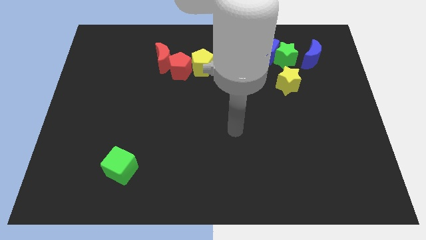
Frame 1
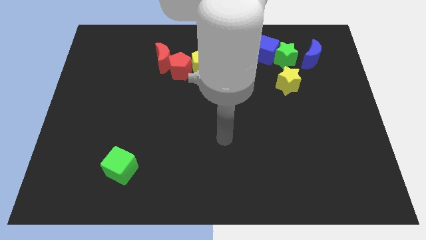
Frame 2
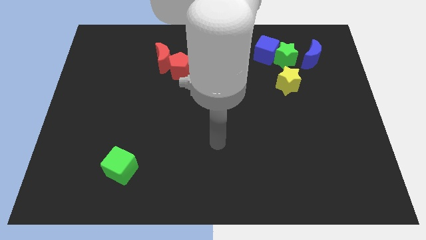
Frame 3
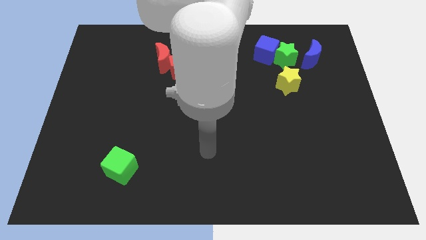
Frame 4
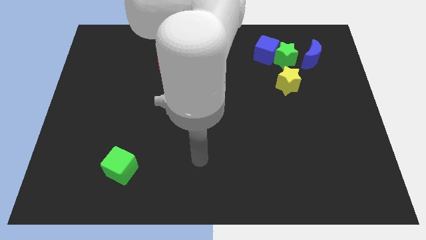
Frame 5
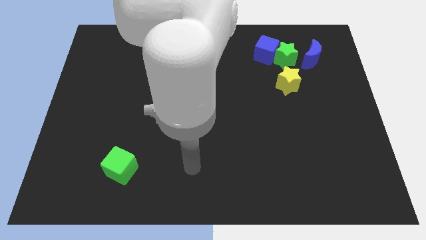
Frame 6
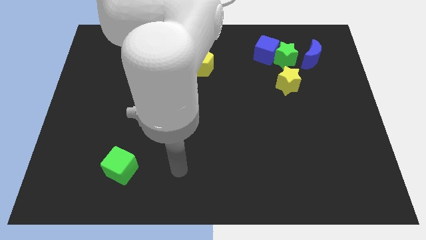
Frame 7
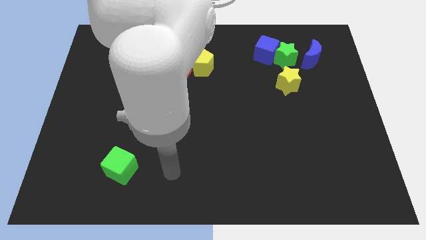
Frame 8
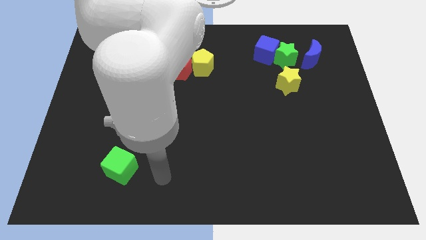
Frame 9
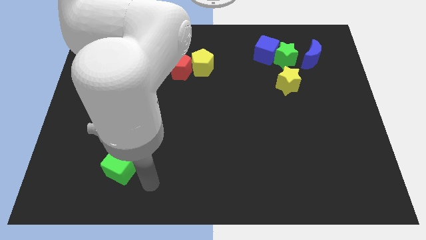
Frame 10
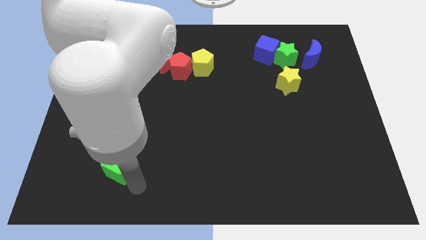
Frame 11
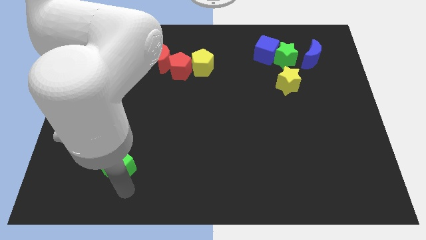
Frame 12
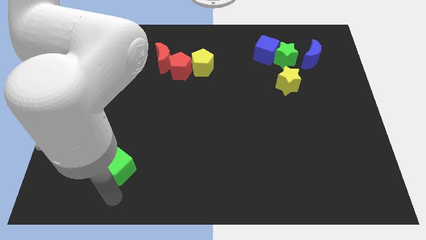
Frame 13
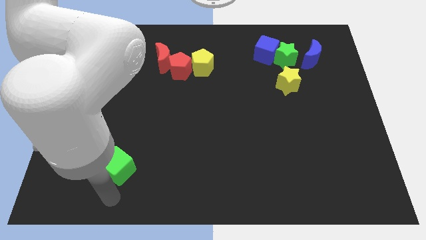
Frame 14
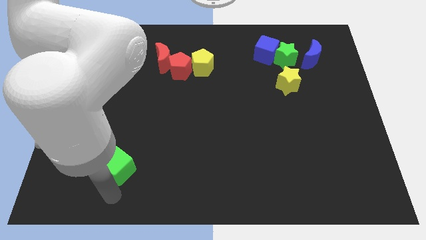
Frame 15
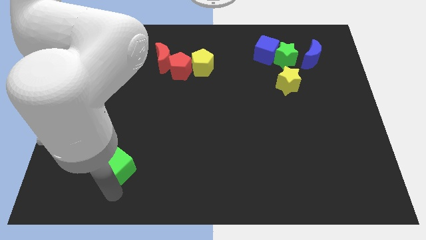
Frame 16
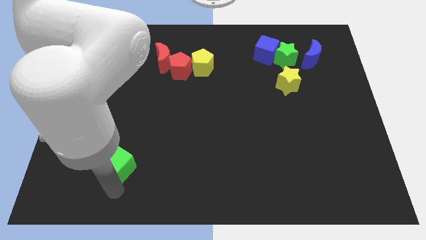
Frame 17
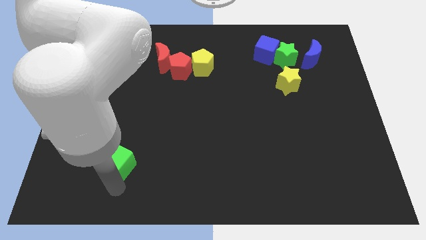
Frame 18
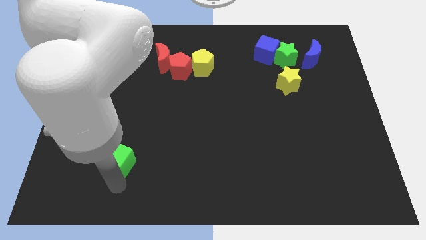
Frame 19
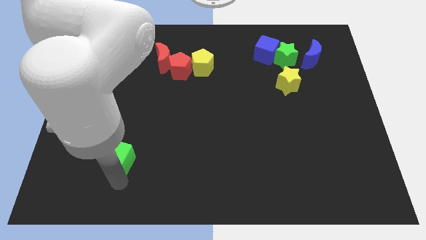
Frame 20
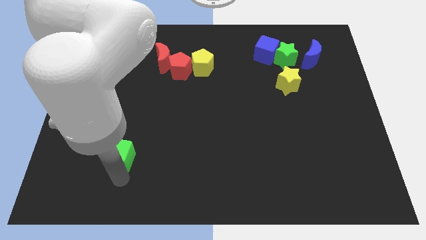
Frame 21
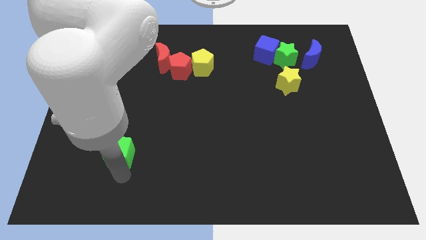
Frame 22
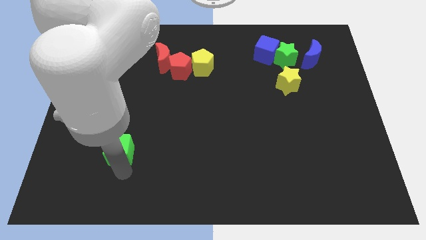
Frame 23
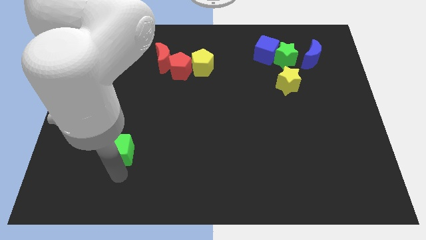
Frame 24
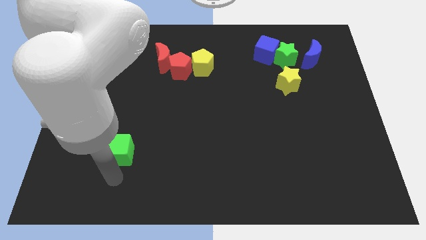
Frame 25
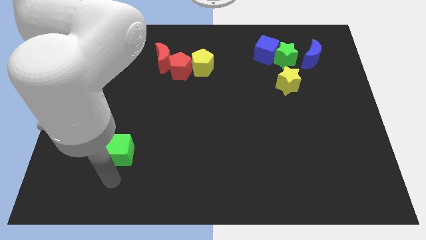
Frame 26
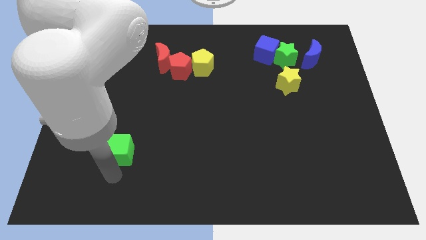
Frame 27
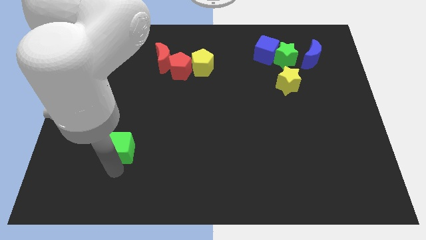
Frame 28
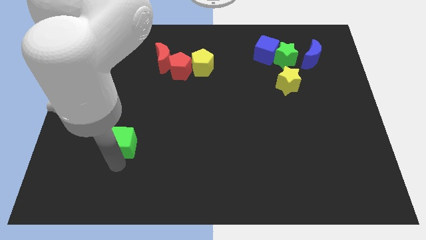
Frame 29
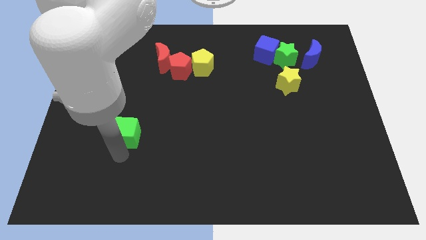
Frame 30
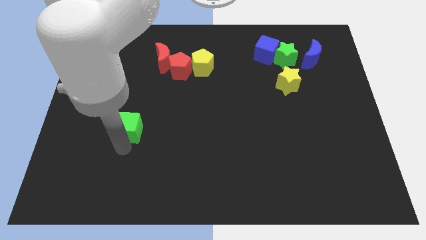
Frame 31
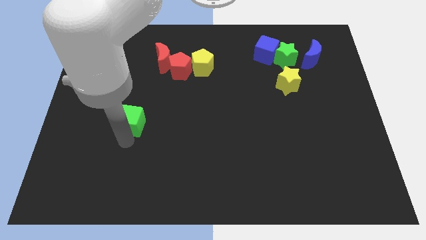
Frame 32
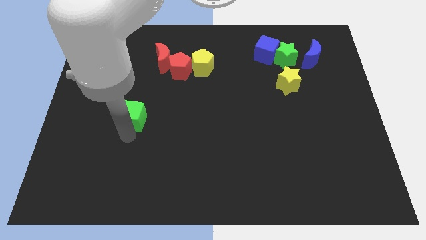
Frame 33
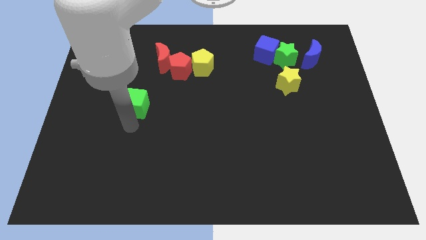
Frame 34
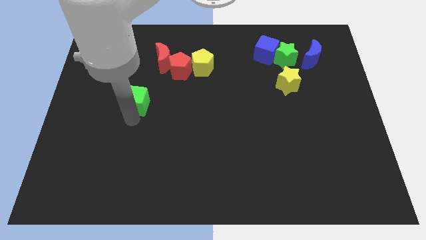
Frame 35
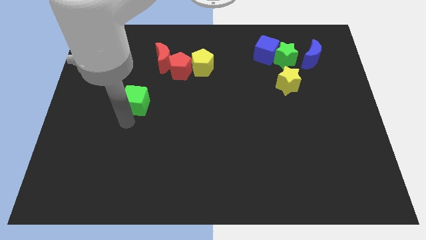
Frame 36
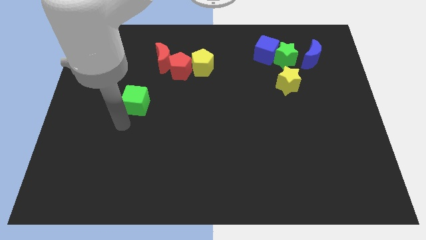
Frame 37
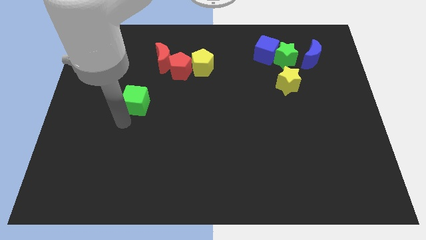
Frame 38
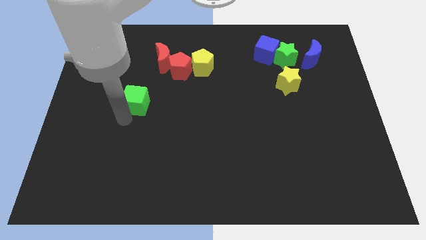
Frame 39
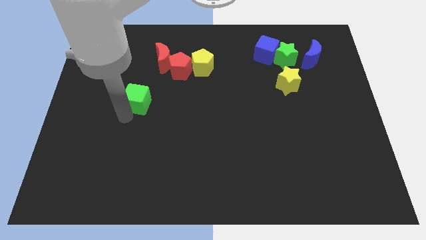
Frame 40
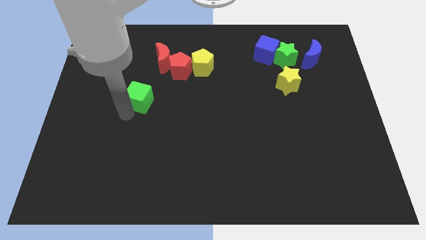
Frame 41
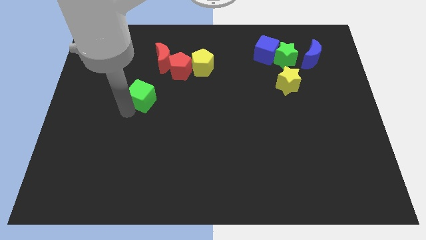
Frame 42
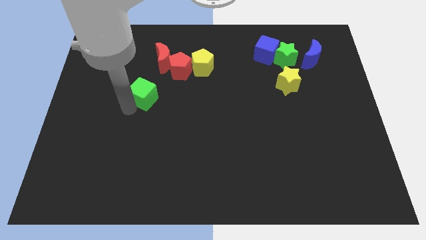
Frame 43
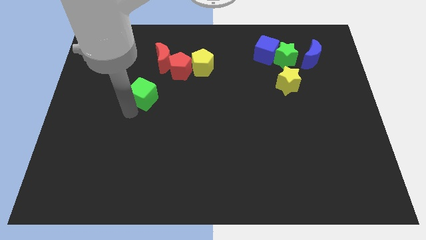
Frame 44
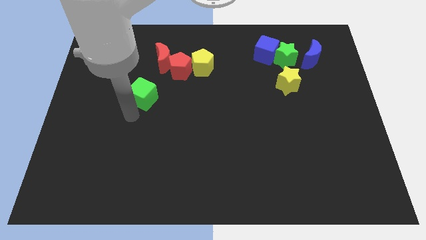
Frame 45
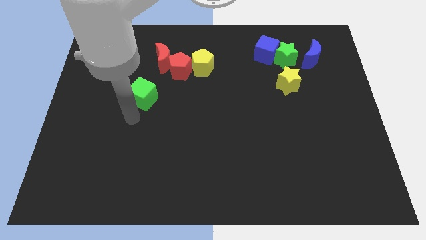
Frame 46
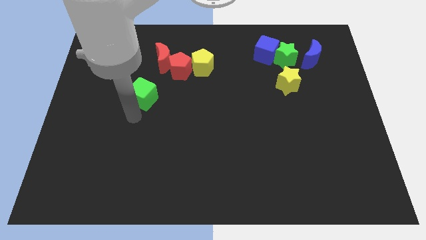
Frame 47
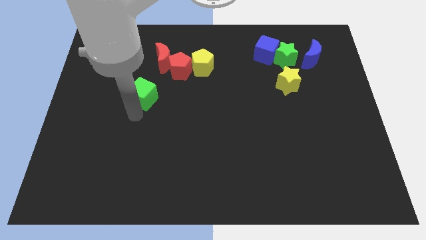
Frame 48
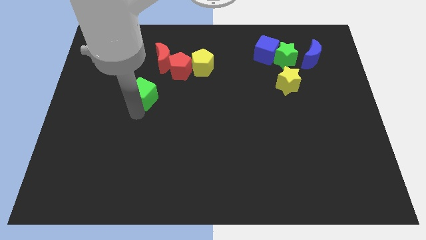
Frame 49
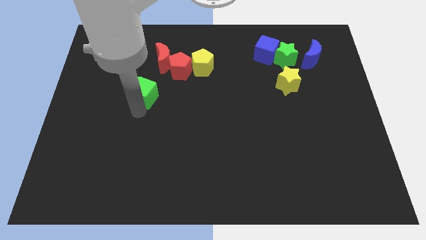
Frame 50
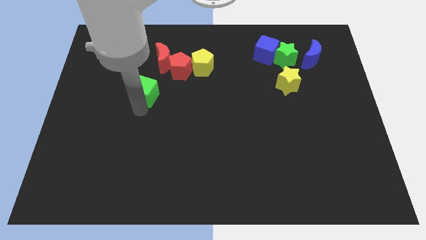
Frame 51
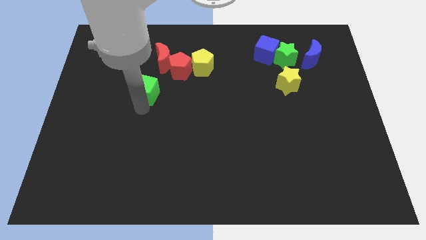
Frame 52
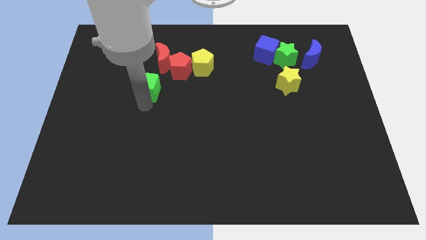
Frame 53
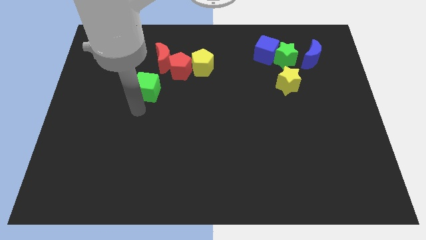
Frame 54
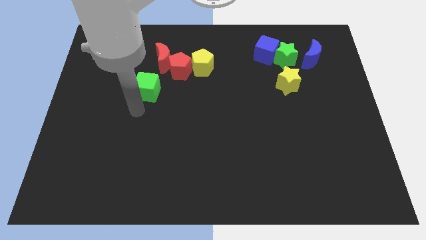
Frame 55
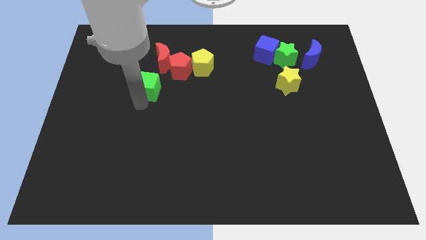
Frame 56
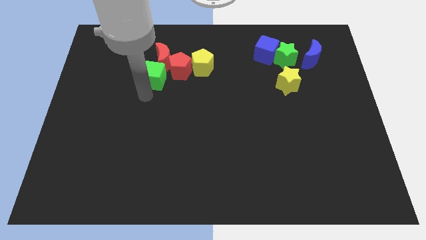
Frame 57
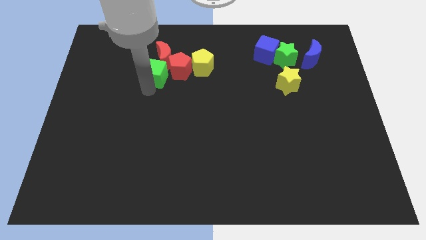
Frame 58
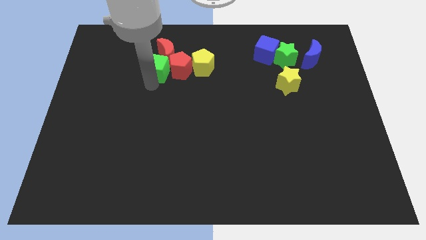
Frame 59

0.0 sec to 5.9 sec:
slide the green cube next to the red moon
